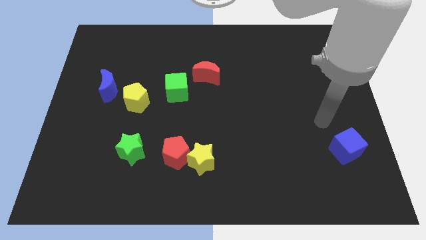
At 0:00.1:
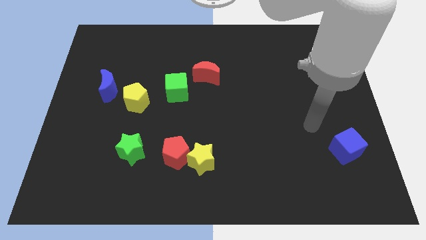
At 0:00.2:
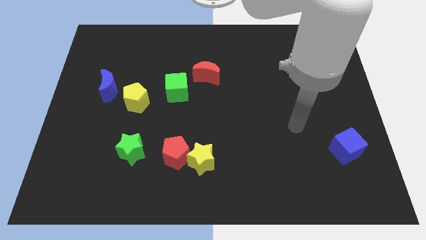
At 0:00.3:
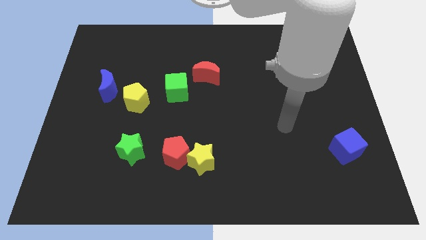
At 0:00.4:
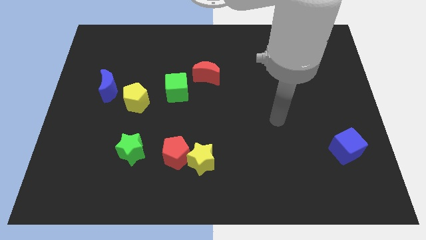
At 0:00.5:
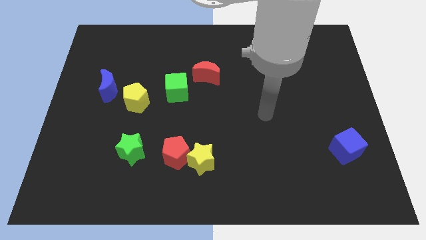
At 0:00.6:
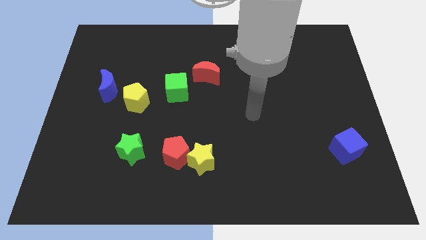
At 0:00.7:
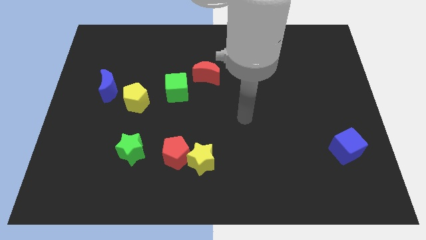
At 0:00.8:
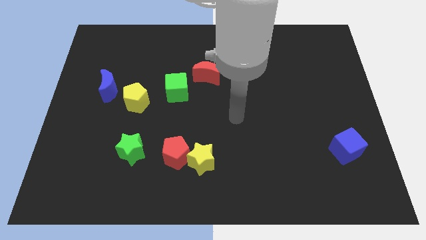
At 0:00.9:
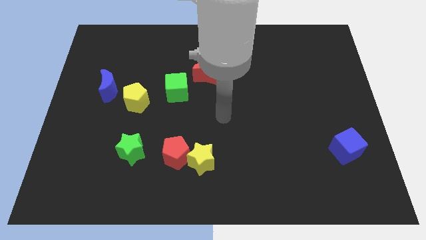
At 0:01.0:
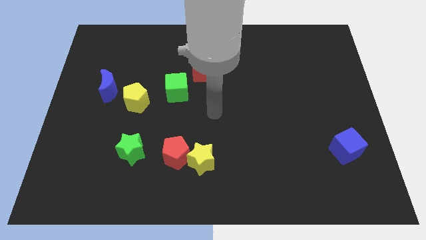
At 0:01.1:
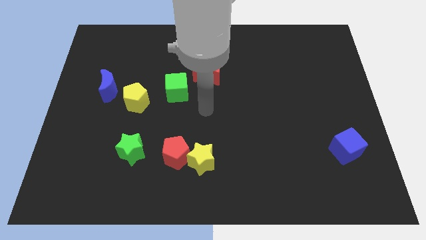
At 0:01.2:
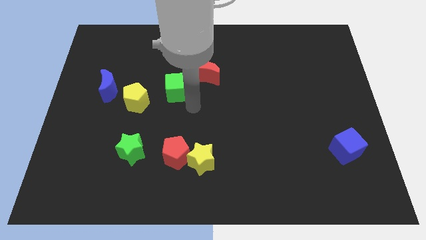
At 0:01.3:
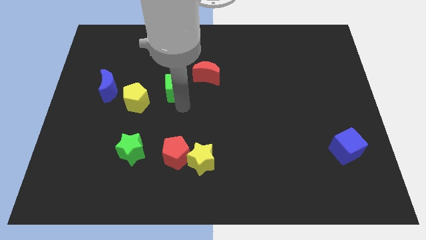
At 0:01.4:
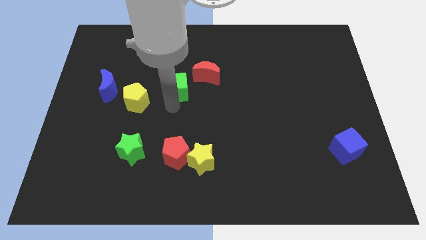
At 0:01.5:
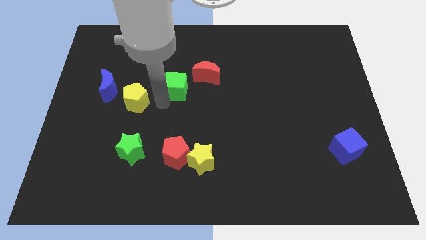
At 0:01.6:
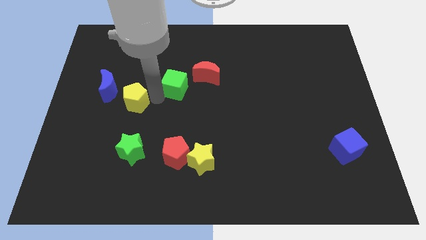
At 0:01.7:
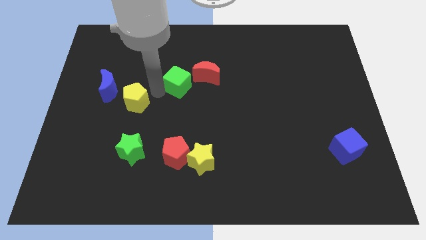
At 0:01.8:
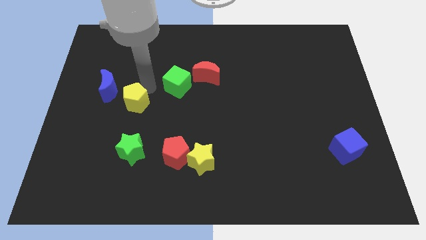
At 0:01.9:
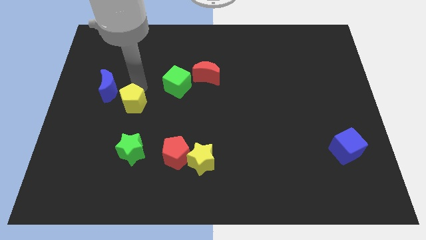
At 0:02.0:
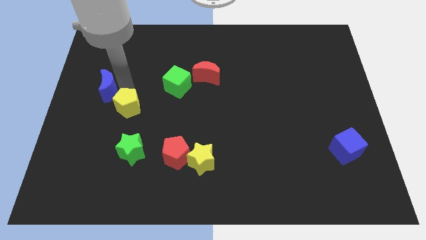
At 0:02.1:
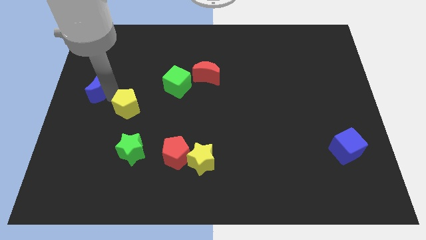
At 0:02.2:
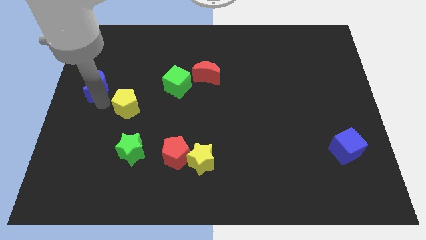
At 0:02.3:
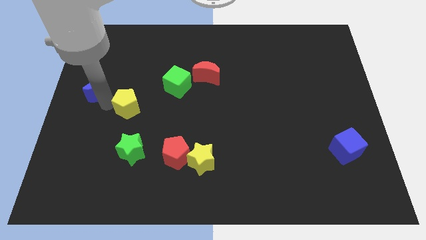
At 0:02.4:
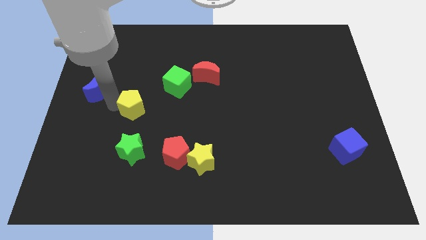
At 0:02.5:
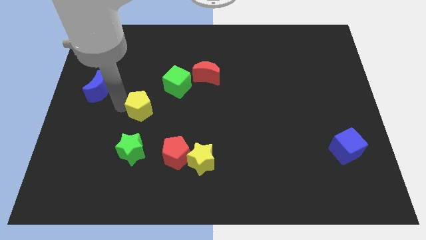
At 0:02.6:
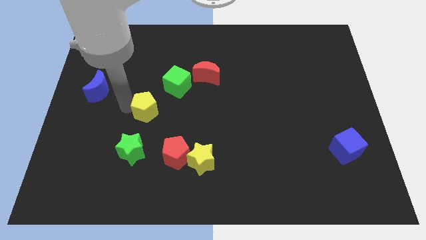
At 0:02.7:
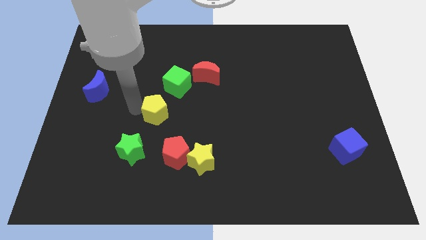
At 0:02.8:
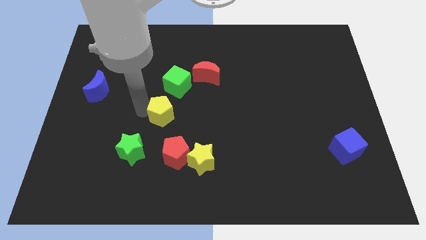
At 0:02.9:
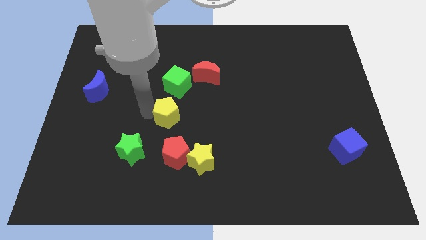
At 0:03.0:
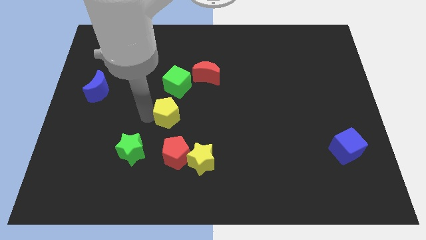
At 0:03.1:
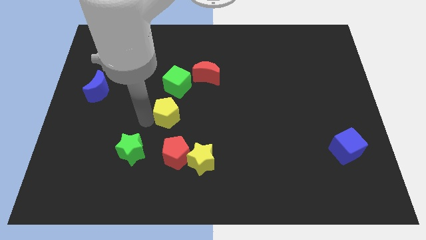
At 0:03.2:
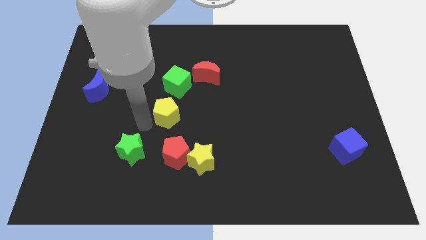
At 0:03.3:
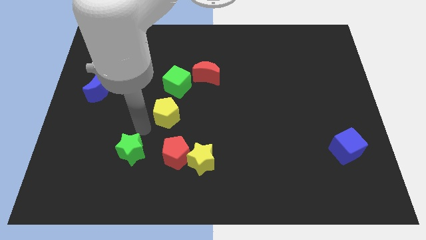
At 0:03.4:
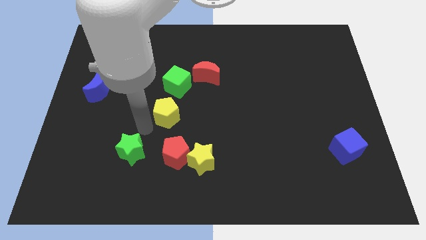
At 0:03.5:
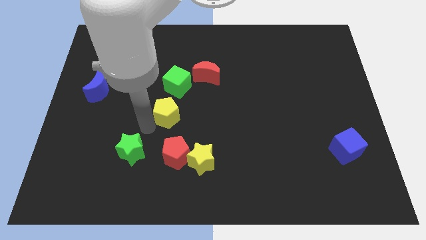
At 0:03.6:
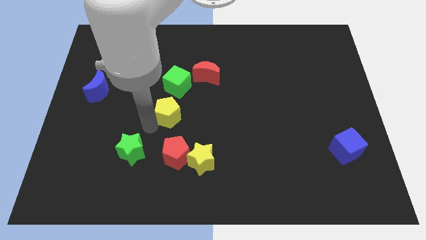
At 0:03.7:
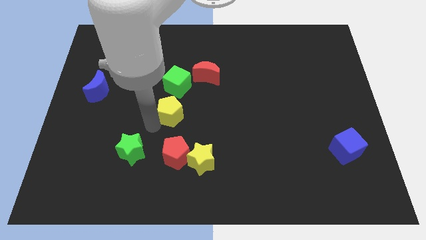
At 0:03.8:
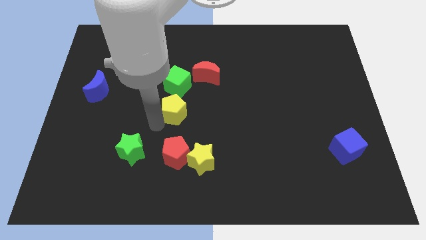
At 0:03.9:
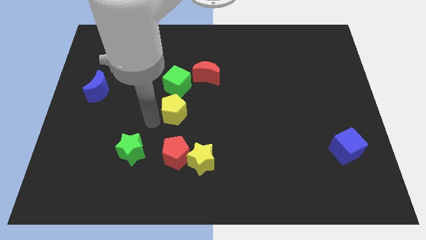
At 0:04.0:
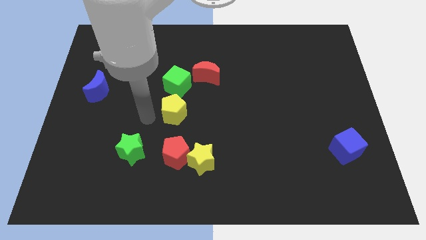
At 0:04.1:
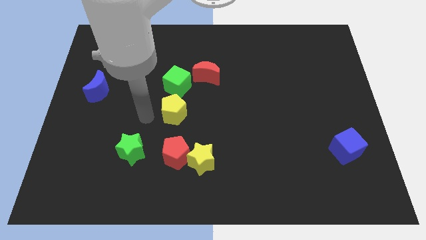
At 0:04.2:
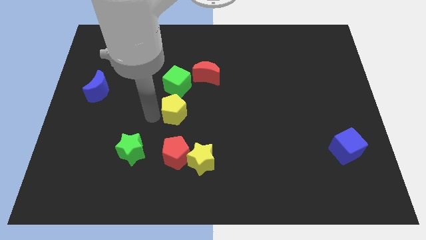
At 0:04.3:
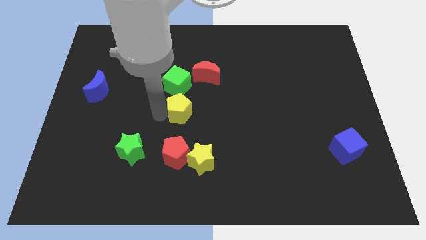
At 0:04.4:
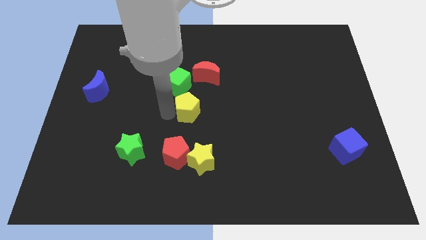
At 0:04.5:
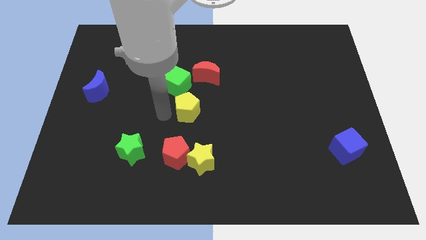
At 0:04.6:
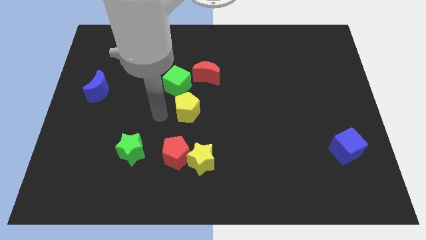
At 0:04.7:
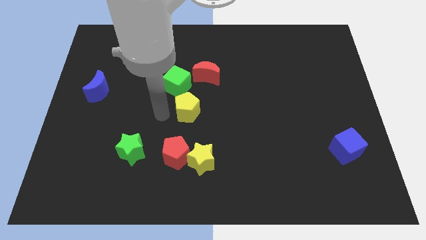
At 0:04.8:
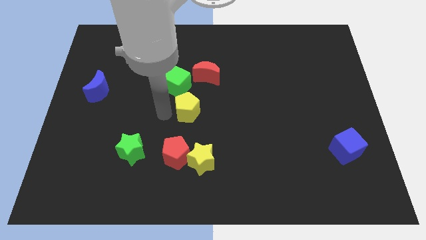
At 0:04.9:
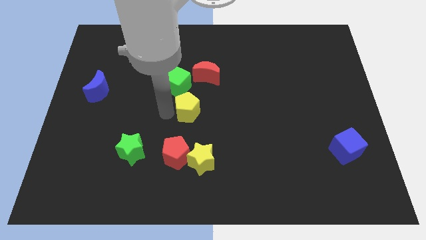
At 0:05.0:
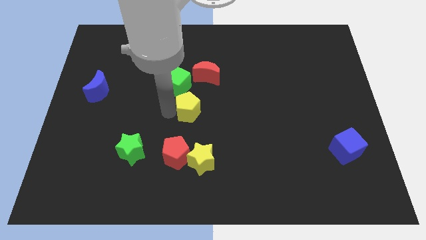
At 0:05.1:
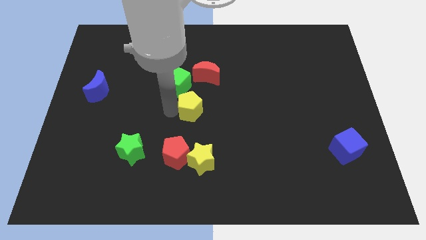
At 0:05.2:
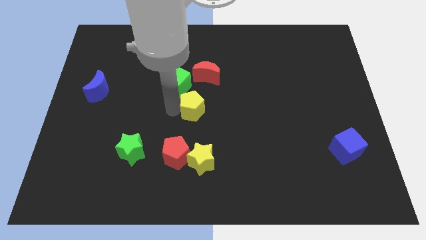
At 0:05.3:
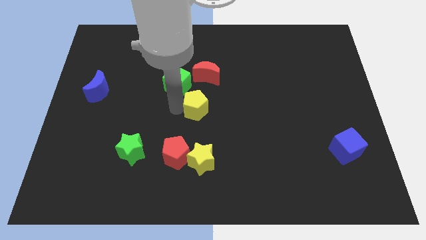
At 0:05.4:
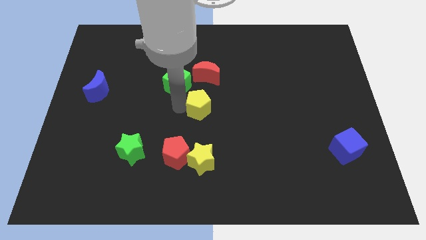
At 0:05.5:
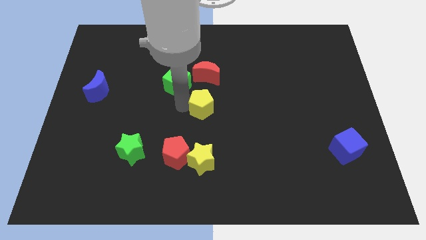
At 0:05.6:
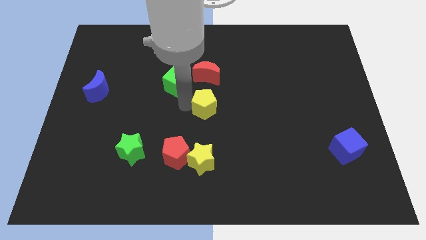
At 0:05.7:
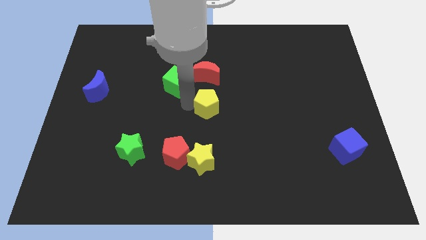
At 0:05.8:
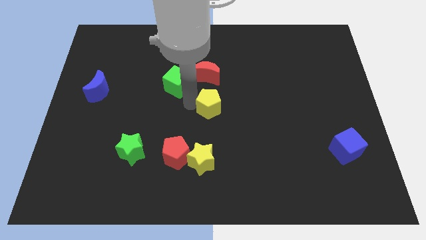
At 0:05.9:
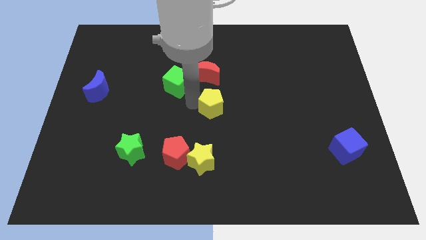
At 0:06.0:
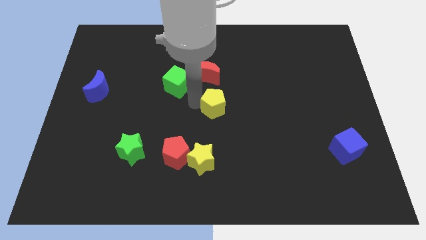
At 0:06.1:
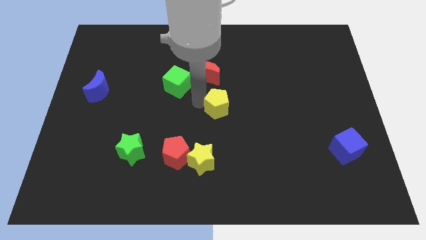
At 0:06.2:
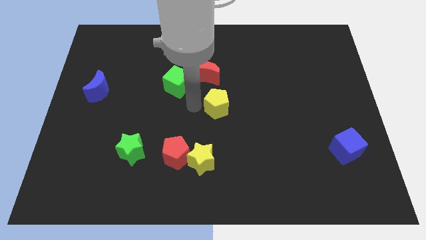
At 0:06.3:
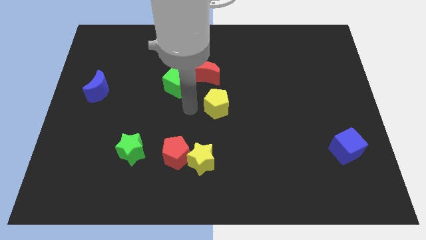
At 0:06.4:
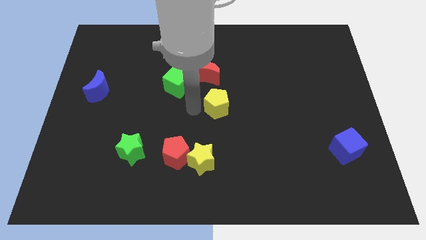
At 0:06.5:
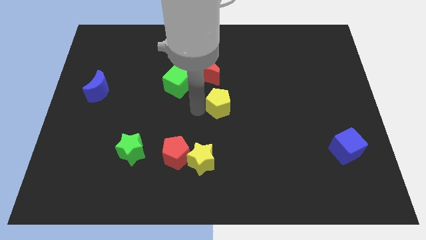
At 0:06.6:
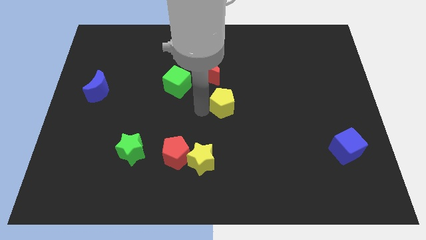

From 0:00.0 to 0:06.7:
push the yellow pentagon to the right

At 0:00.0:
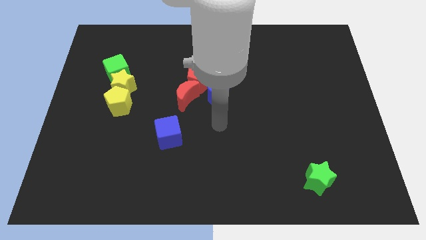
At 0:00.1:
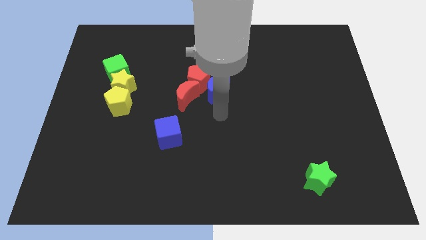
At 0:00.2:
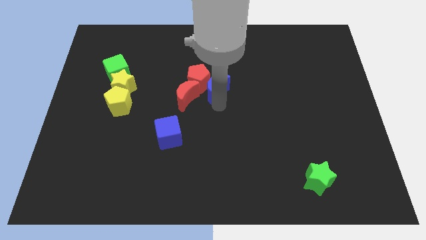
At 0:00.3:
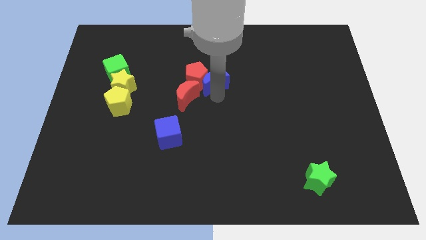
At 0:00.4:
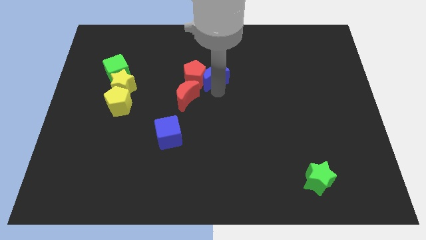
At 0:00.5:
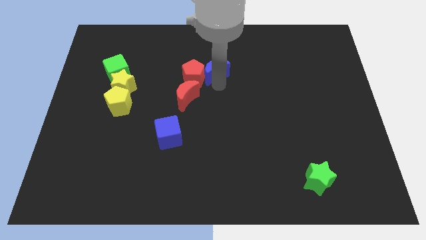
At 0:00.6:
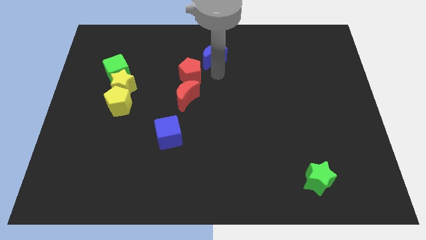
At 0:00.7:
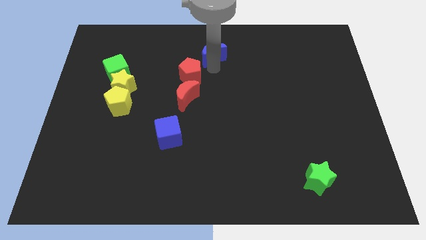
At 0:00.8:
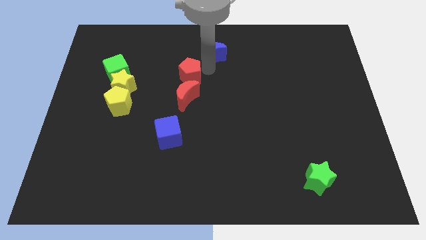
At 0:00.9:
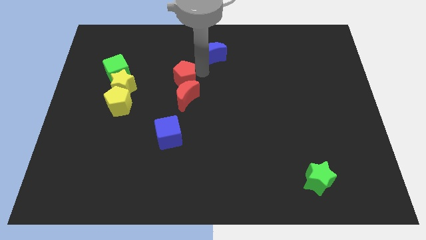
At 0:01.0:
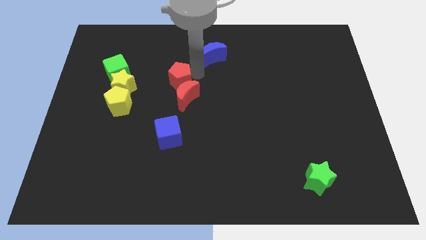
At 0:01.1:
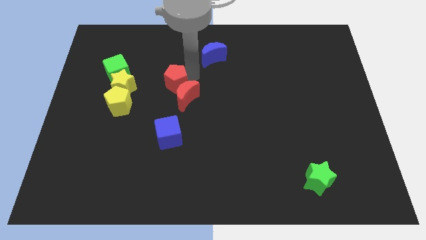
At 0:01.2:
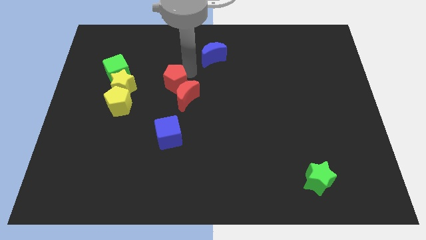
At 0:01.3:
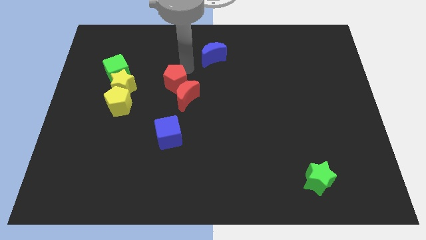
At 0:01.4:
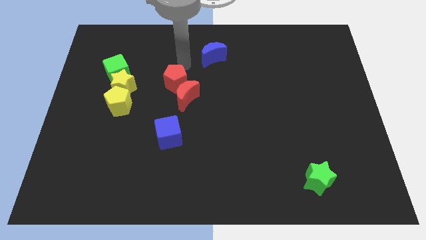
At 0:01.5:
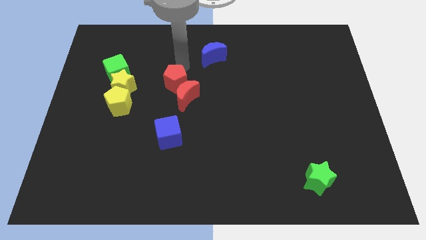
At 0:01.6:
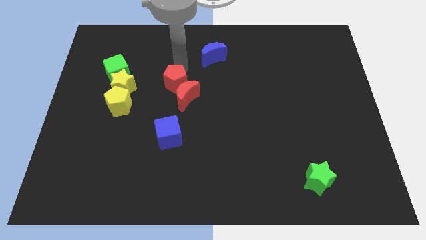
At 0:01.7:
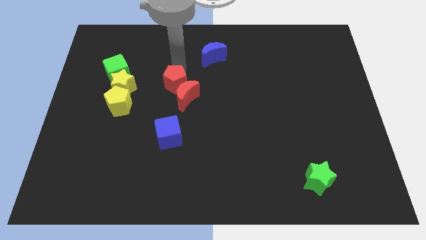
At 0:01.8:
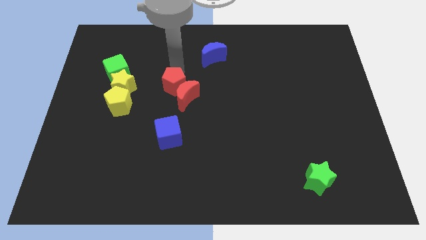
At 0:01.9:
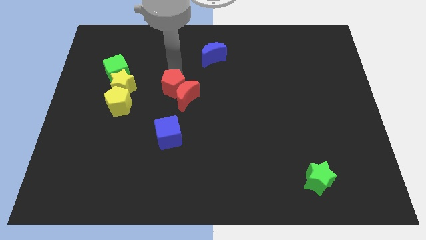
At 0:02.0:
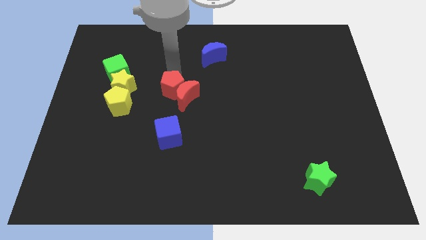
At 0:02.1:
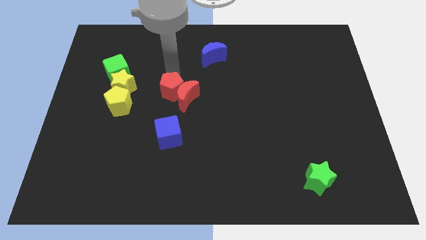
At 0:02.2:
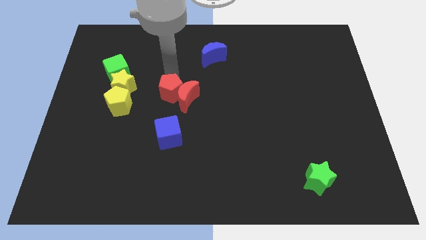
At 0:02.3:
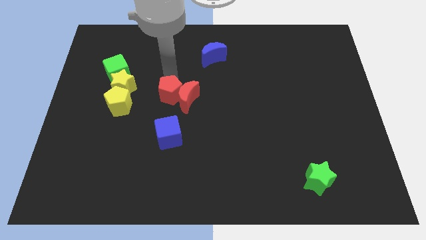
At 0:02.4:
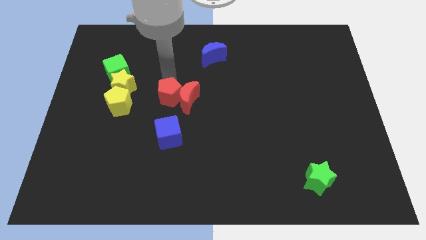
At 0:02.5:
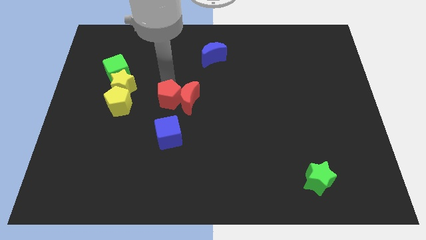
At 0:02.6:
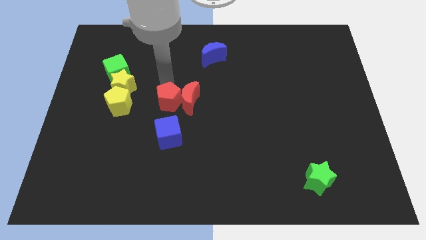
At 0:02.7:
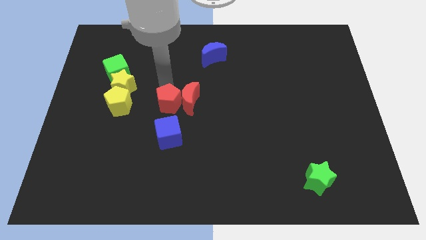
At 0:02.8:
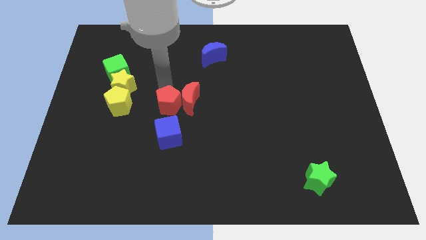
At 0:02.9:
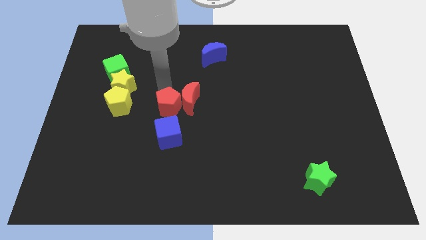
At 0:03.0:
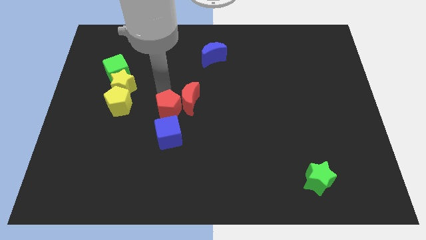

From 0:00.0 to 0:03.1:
slide the red pentagon down a little bit
